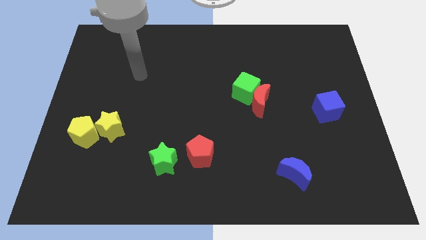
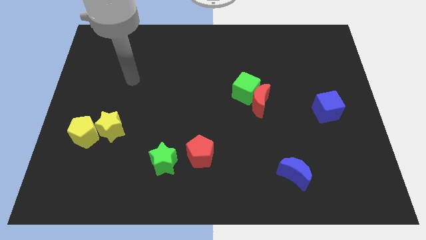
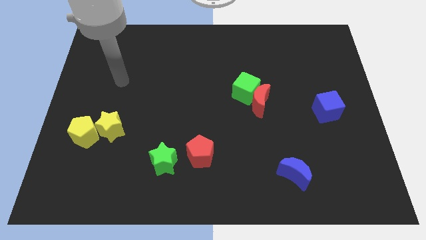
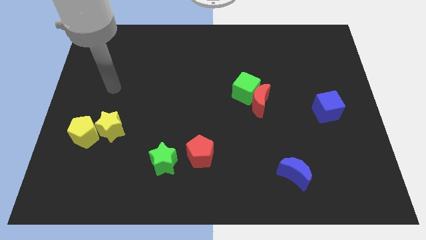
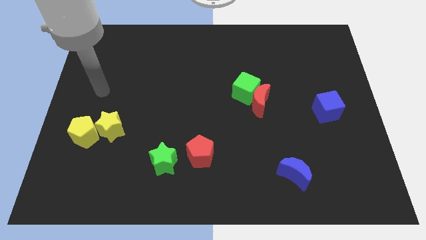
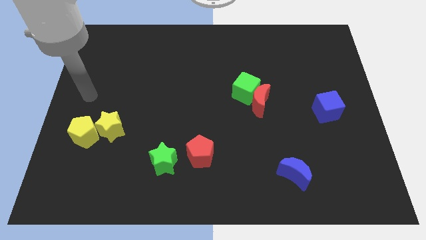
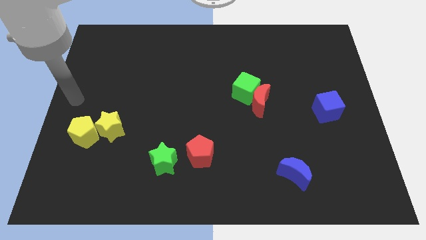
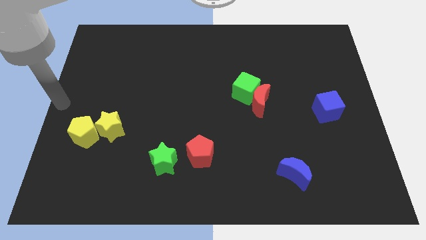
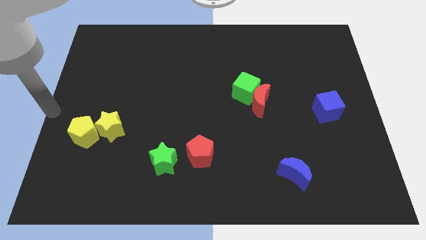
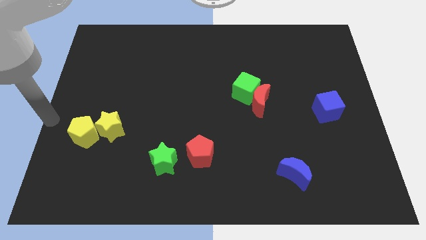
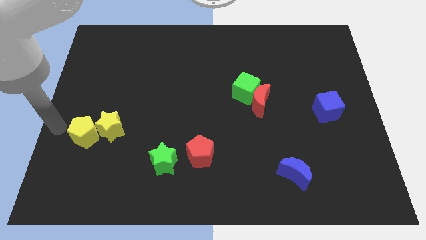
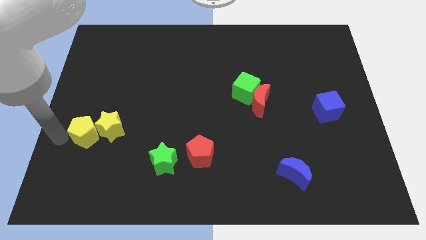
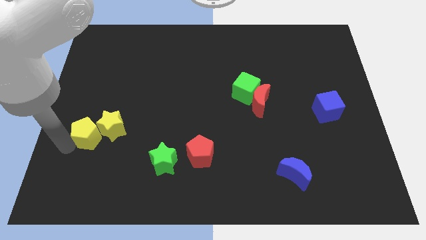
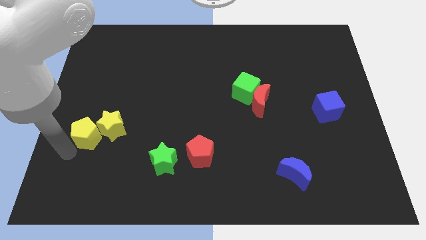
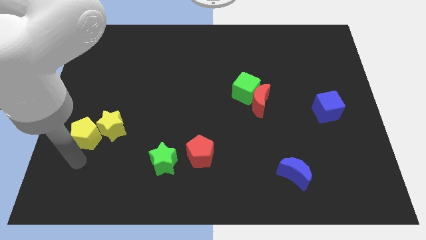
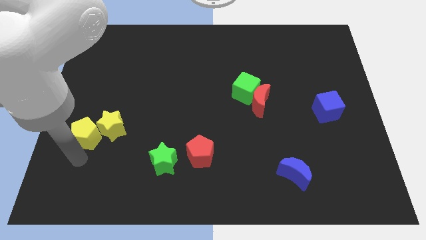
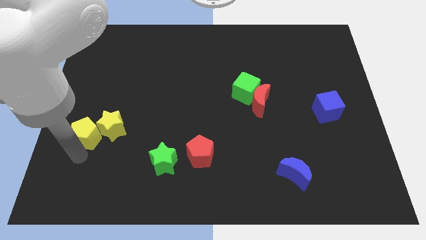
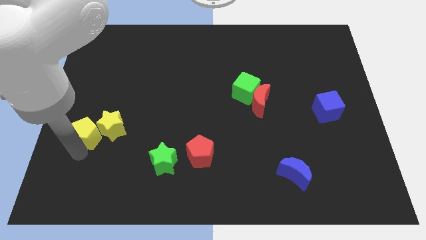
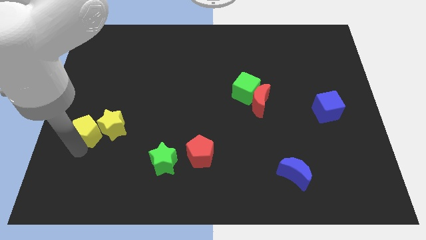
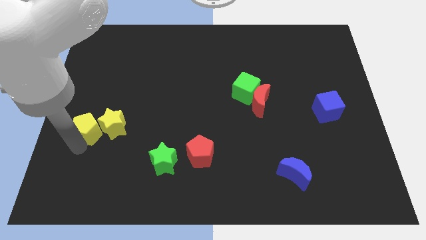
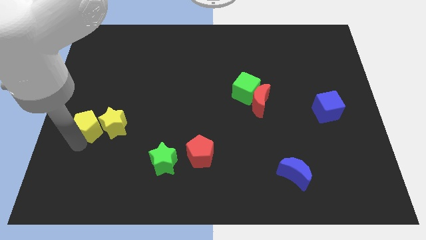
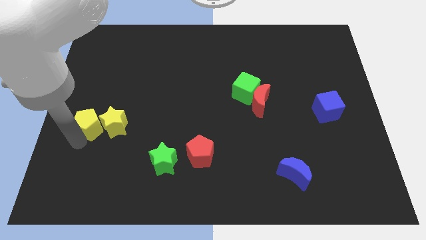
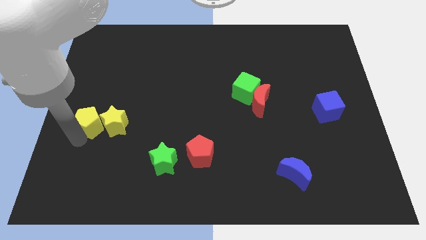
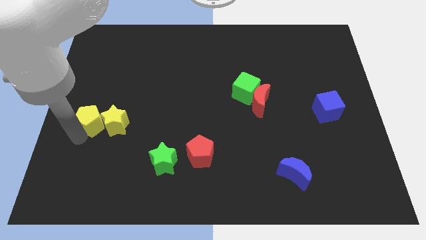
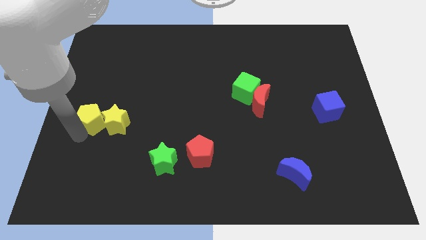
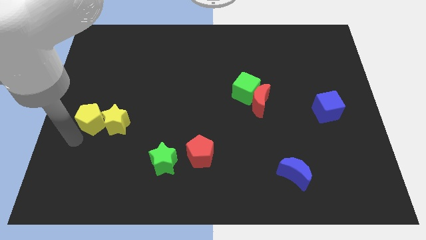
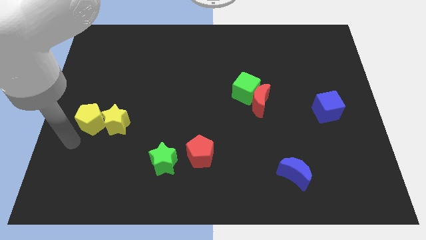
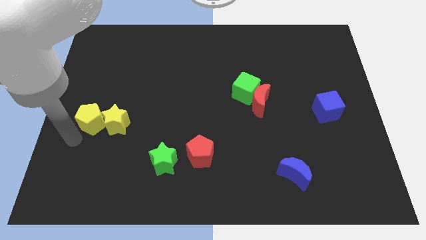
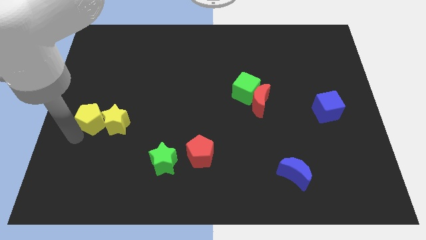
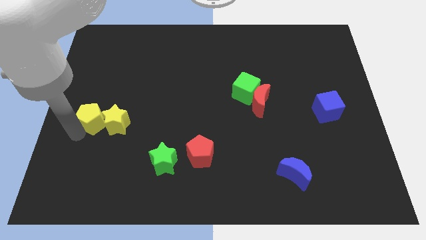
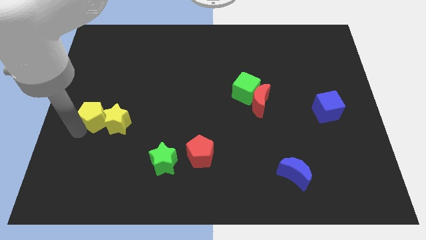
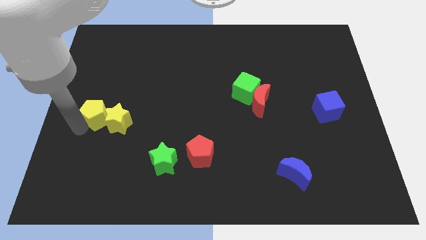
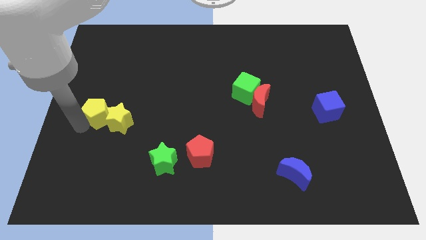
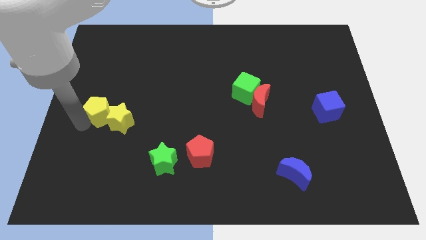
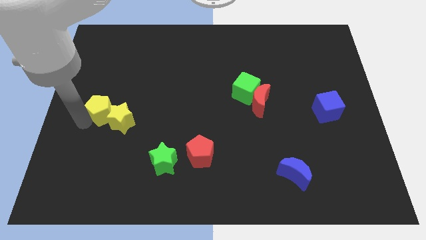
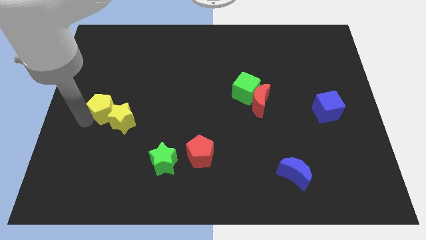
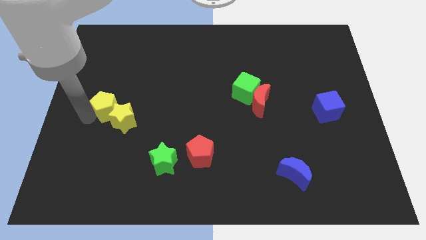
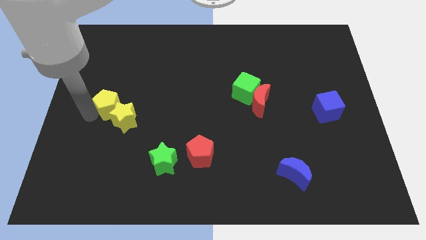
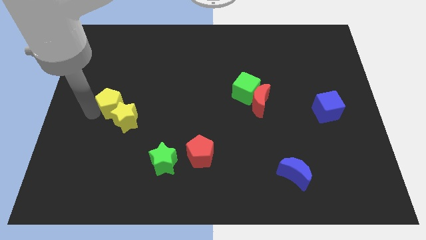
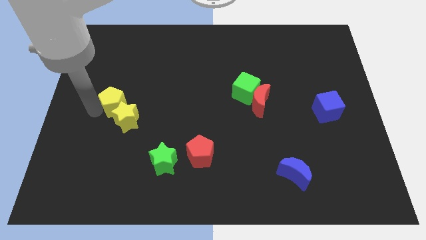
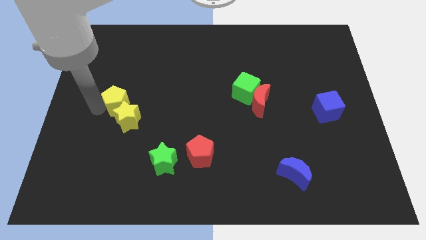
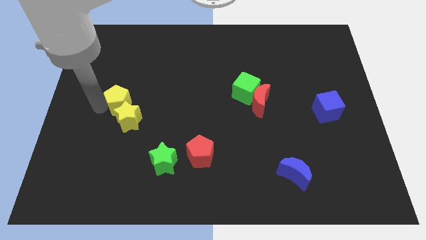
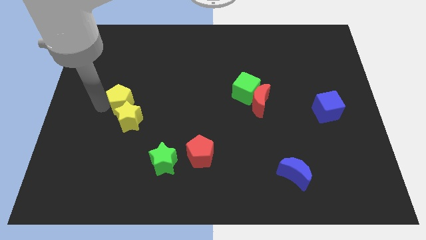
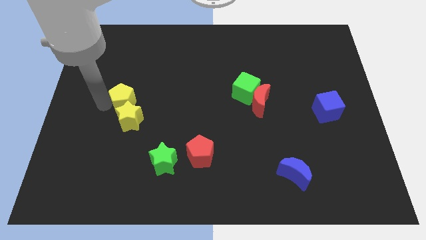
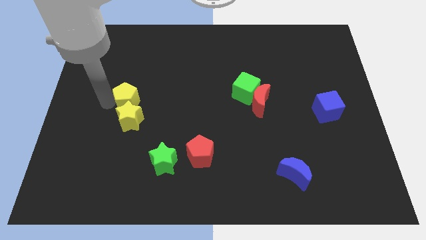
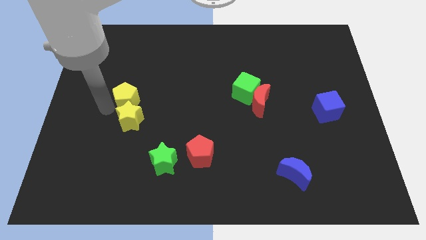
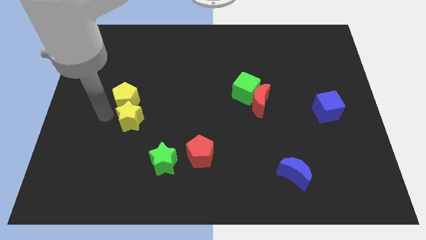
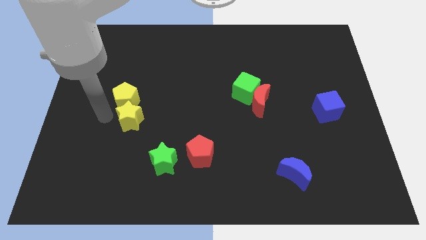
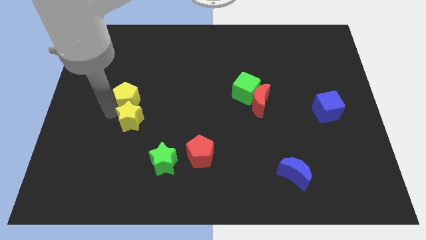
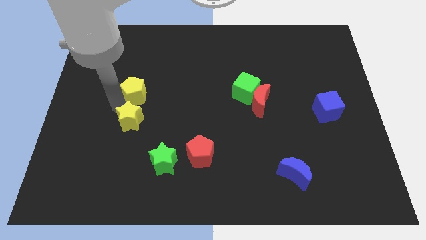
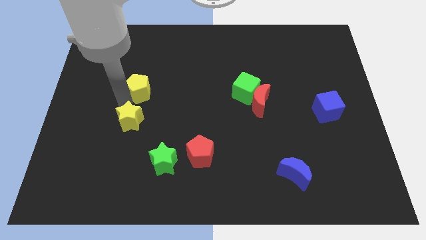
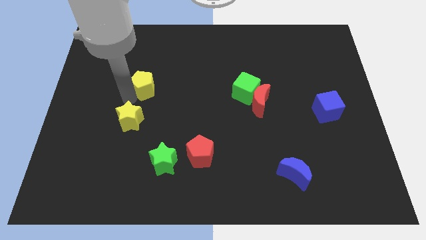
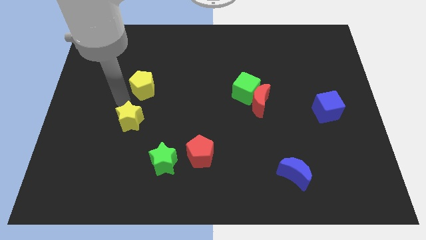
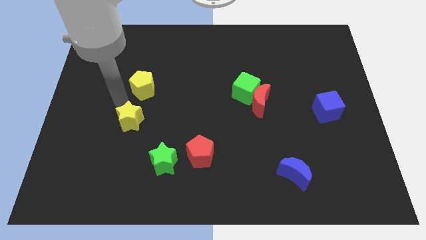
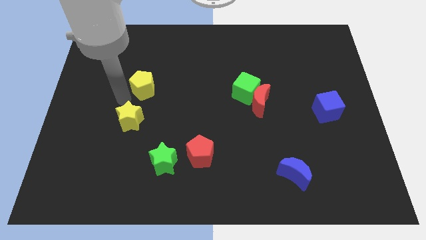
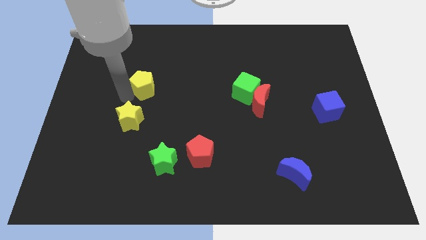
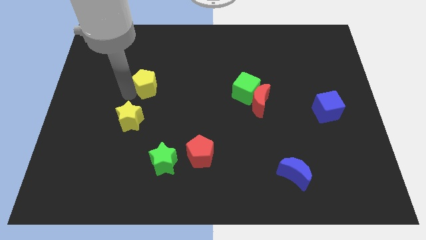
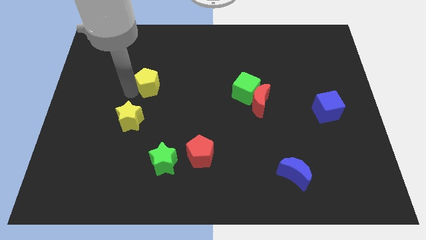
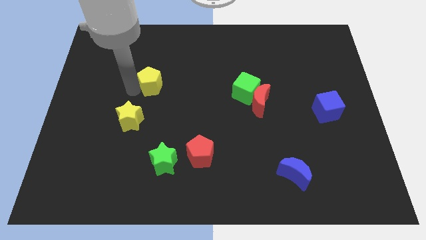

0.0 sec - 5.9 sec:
move the yellow pentagon upwards and right diagonally

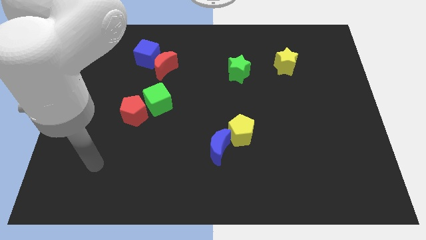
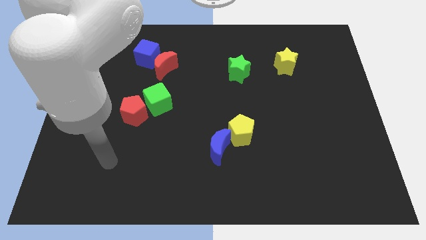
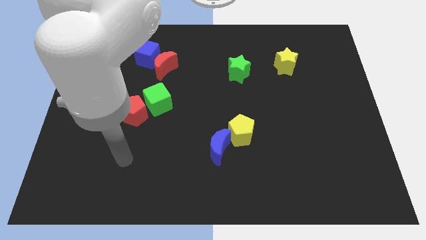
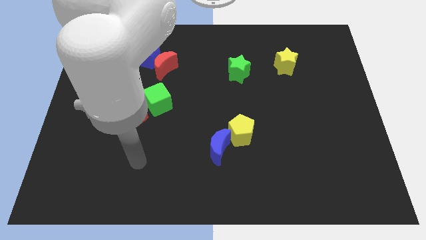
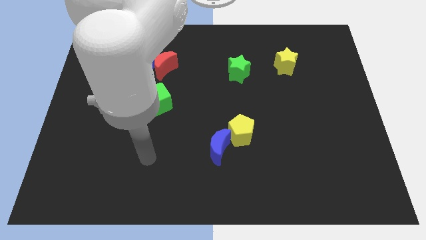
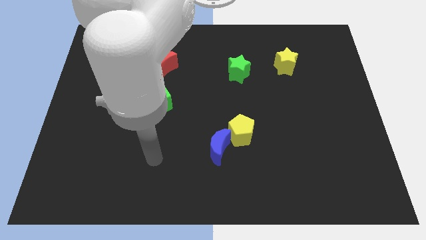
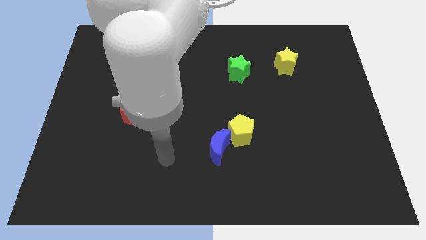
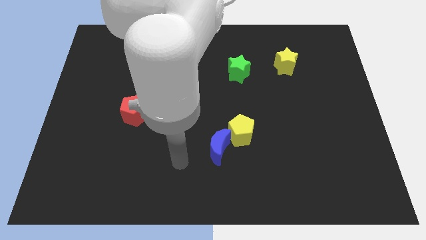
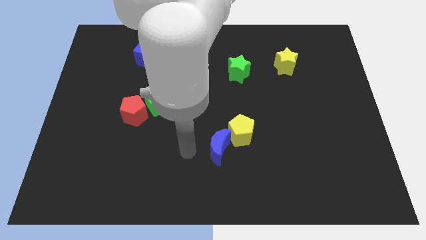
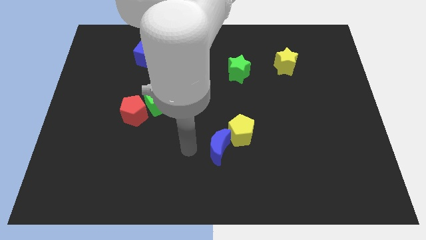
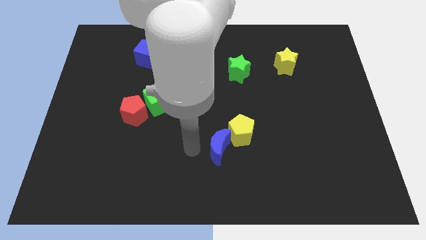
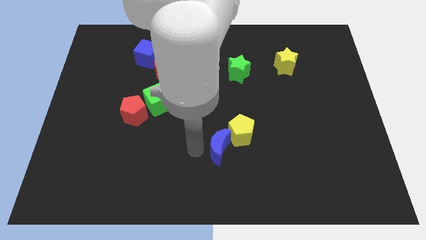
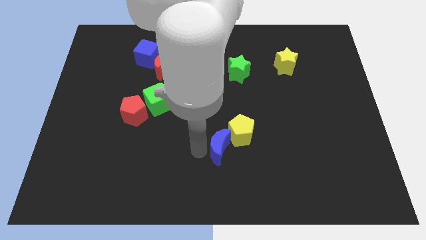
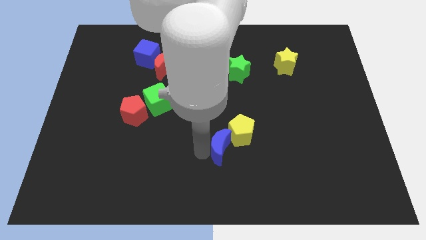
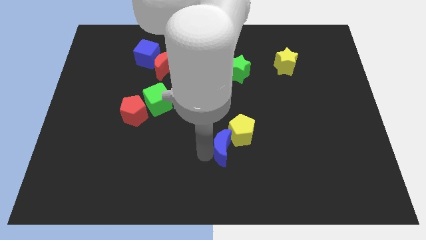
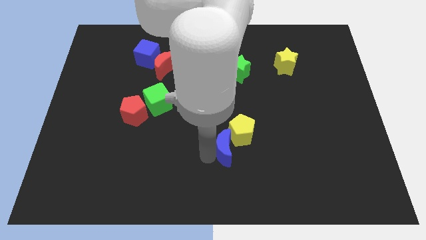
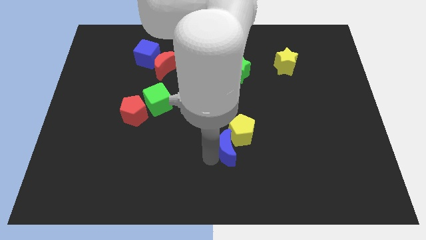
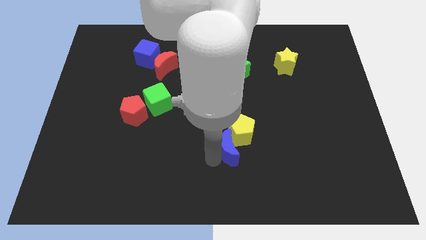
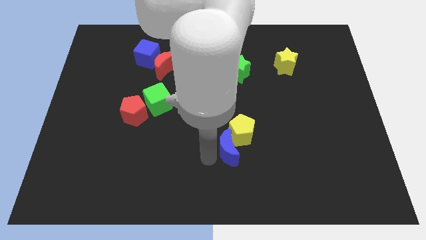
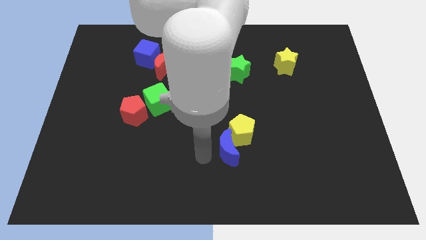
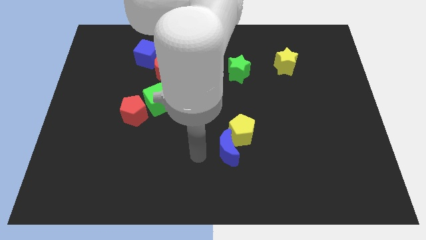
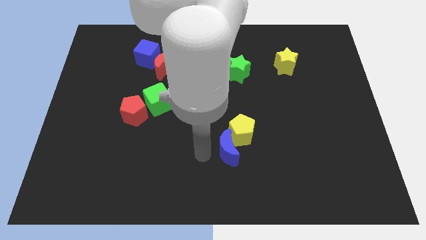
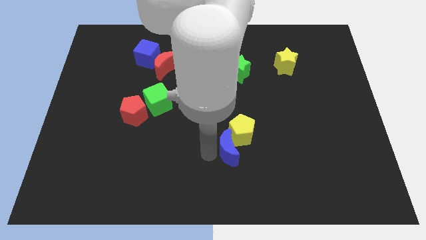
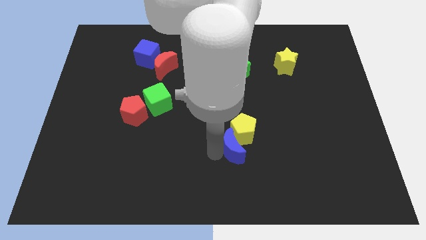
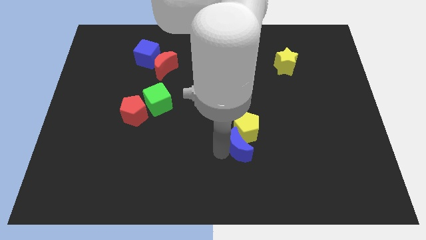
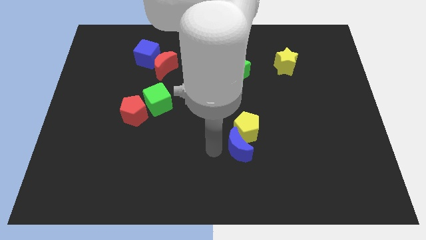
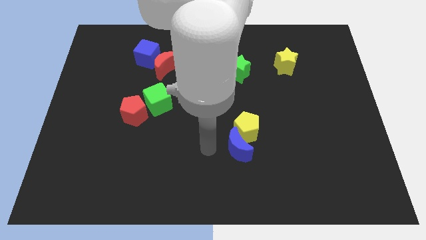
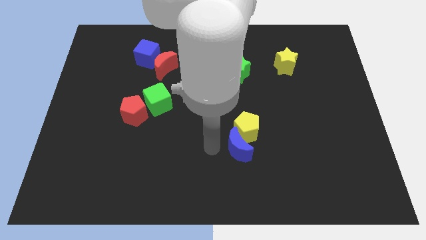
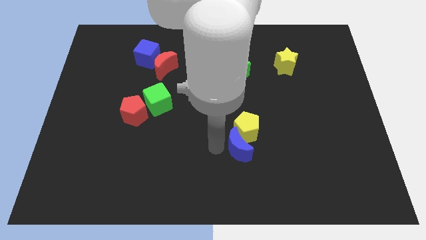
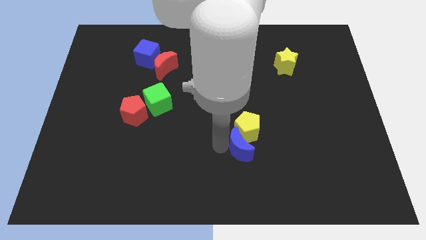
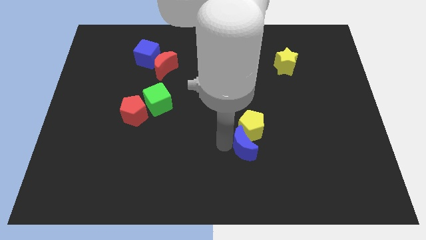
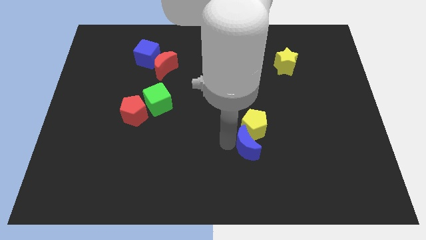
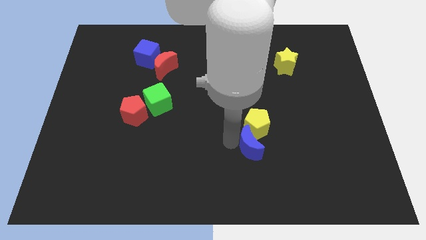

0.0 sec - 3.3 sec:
move the blue moon right a little bit
